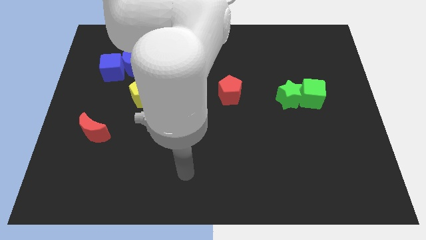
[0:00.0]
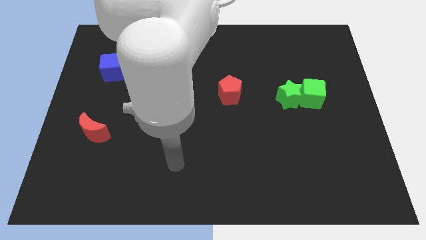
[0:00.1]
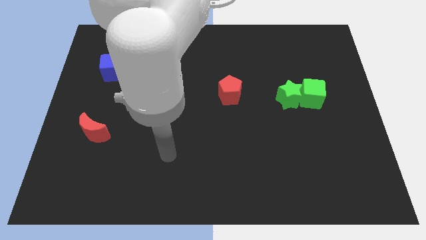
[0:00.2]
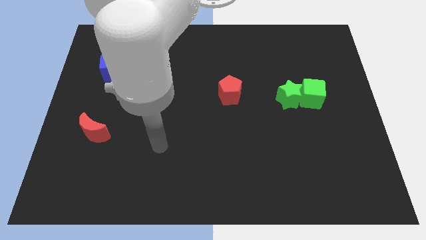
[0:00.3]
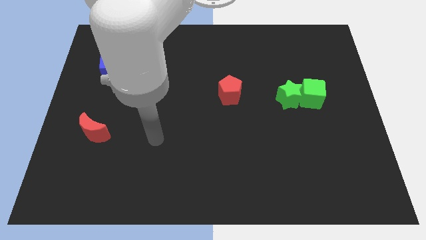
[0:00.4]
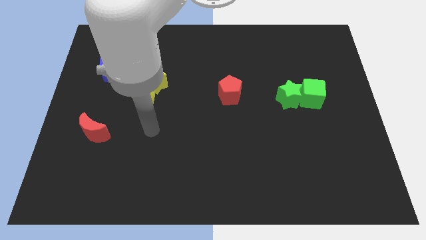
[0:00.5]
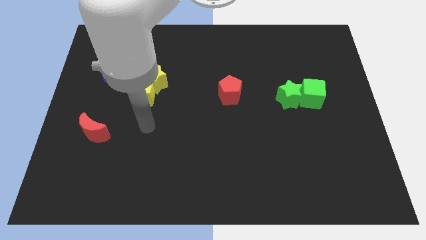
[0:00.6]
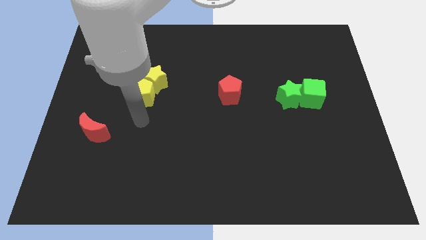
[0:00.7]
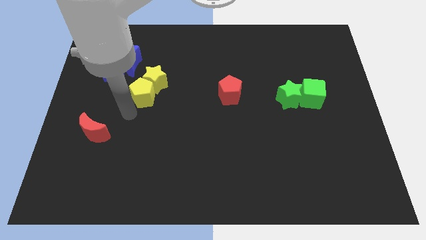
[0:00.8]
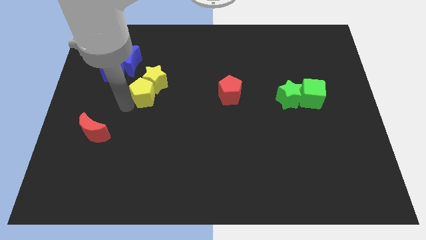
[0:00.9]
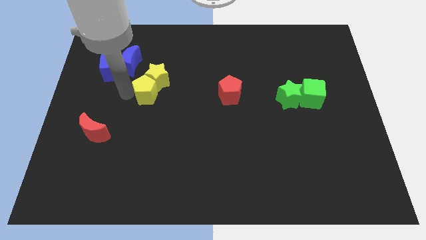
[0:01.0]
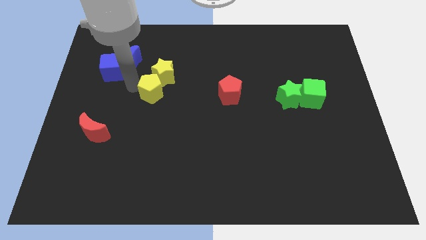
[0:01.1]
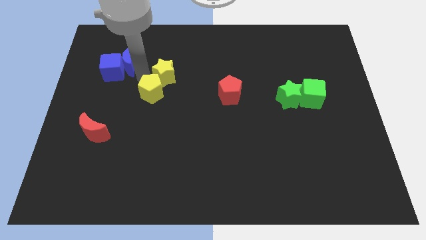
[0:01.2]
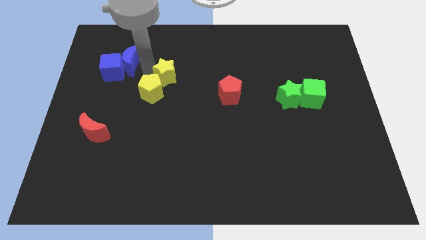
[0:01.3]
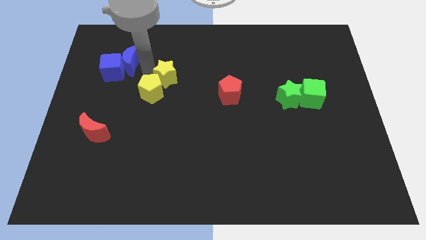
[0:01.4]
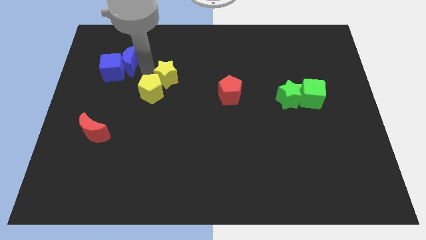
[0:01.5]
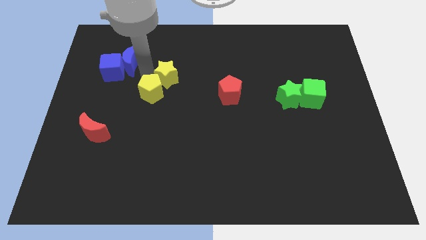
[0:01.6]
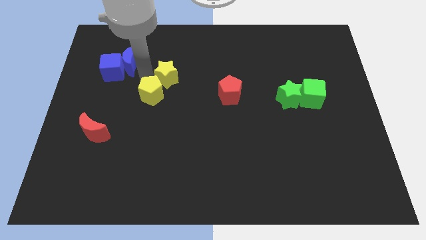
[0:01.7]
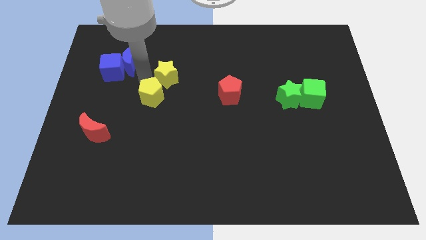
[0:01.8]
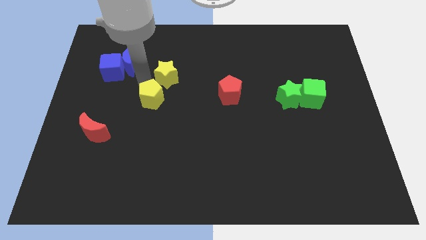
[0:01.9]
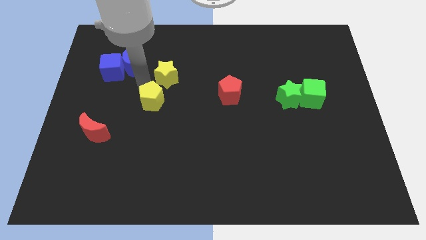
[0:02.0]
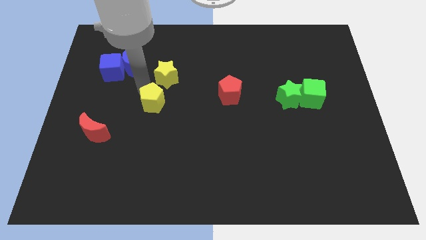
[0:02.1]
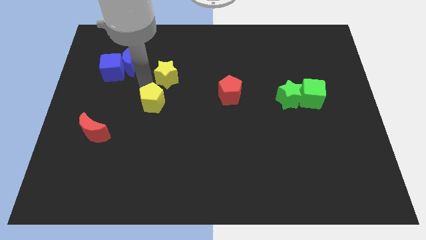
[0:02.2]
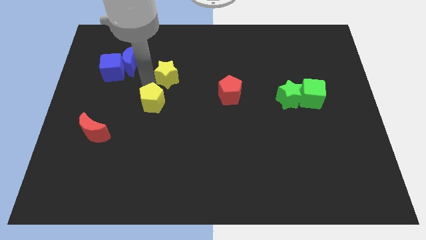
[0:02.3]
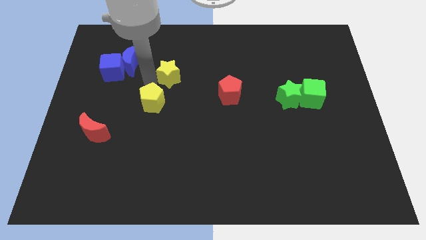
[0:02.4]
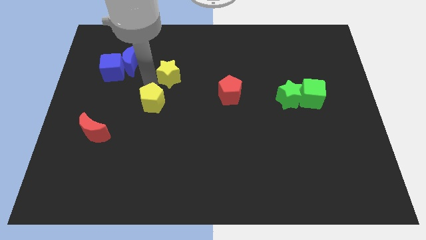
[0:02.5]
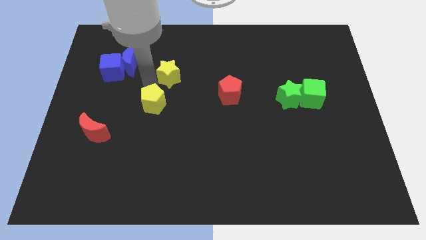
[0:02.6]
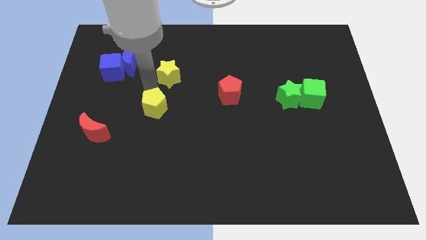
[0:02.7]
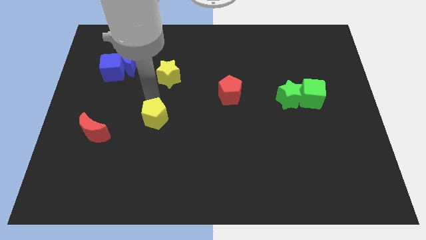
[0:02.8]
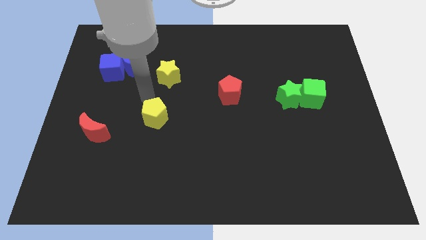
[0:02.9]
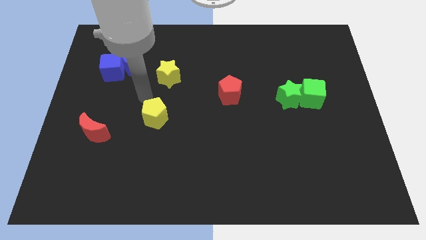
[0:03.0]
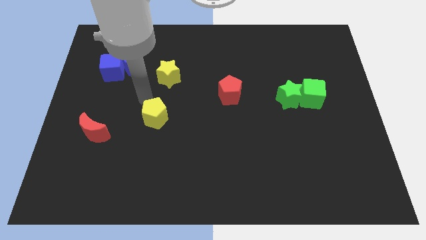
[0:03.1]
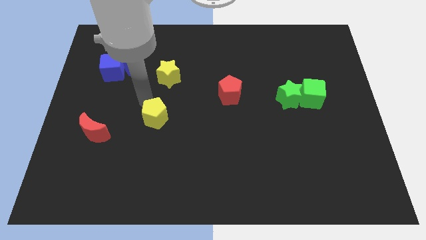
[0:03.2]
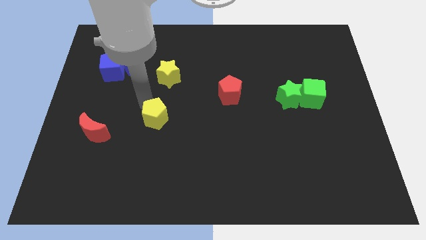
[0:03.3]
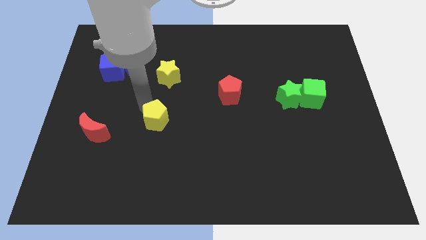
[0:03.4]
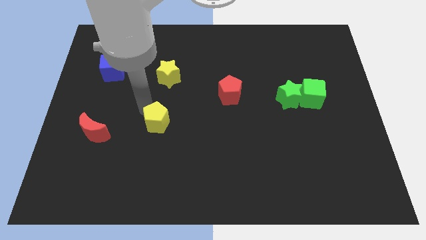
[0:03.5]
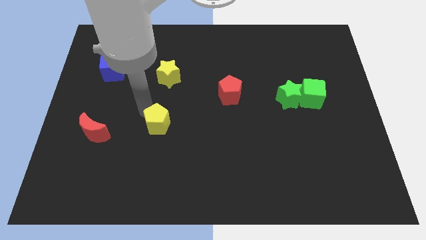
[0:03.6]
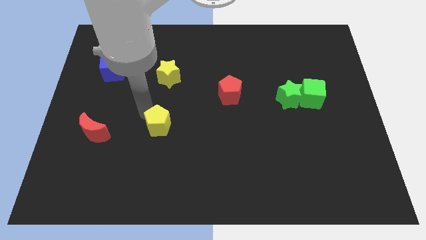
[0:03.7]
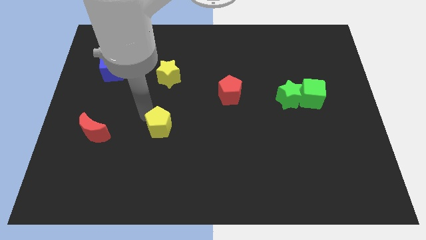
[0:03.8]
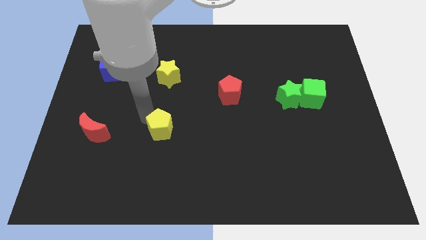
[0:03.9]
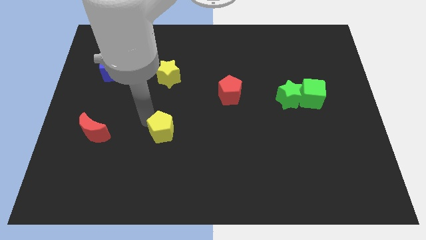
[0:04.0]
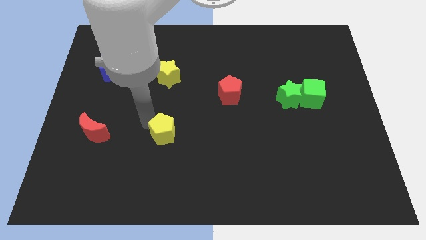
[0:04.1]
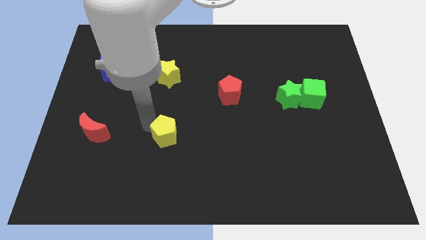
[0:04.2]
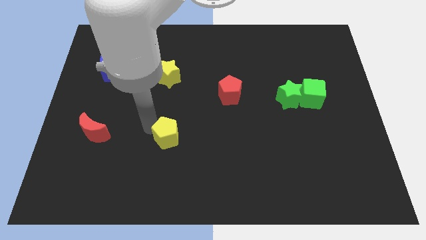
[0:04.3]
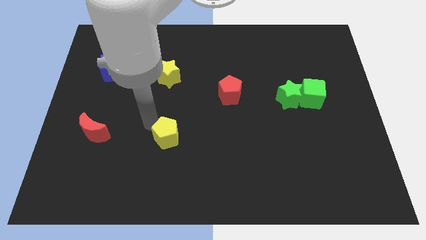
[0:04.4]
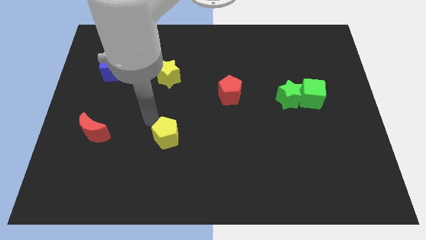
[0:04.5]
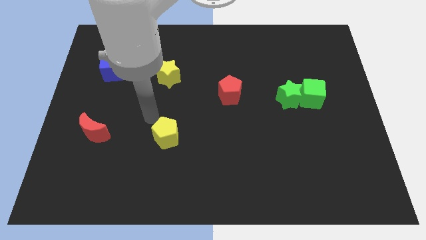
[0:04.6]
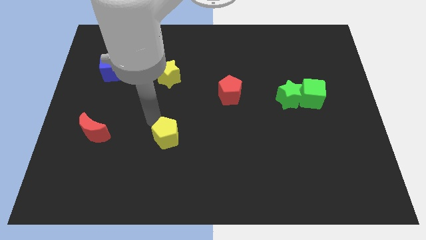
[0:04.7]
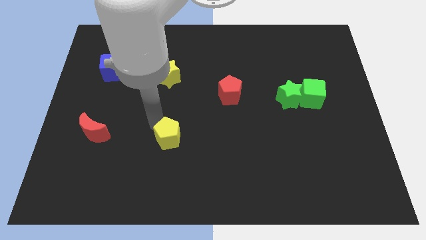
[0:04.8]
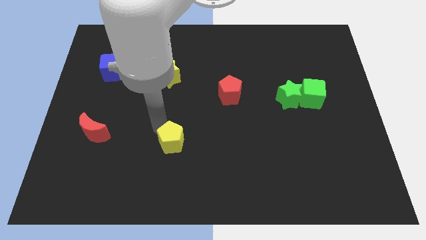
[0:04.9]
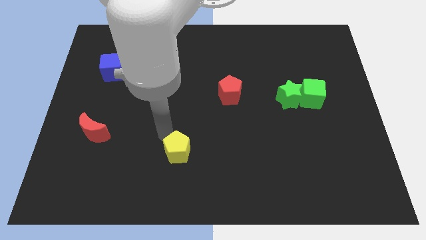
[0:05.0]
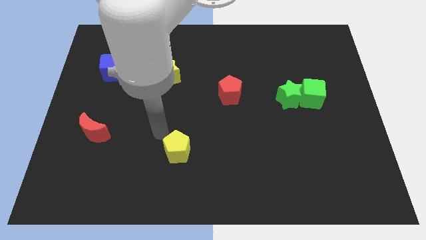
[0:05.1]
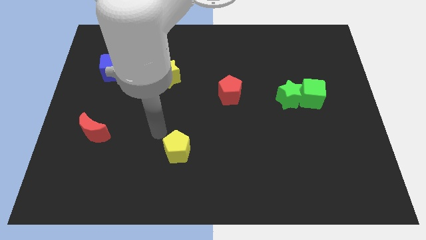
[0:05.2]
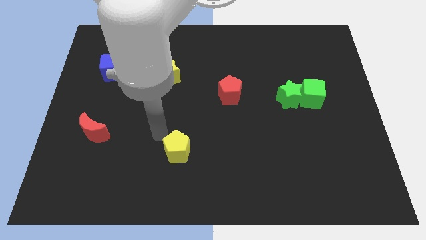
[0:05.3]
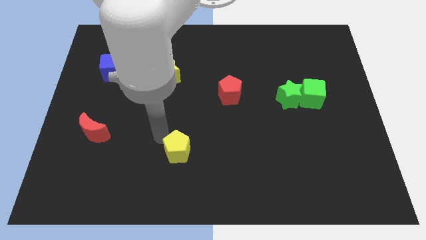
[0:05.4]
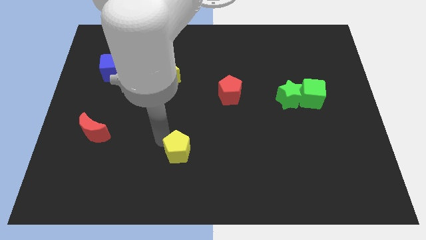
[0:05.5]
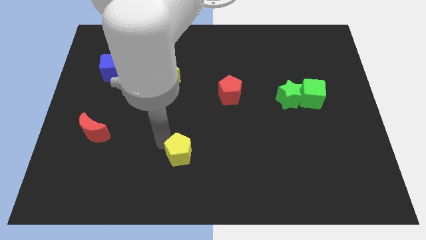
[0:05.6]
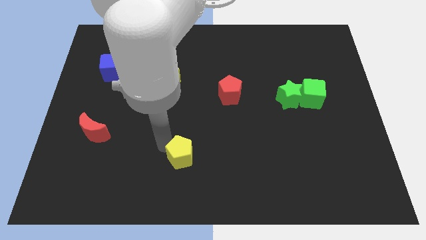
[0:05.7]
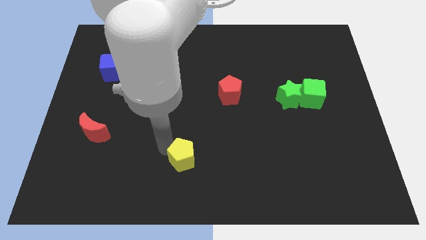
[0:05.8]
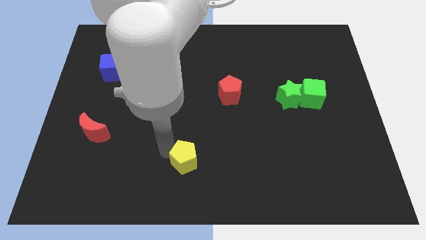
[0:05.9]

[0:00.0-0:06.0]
slide the yellow pentagon to the bottom side
